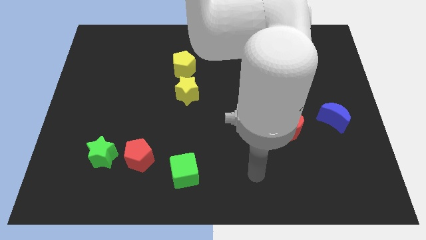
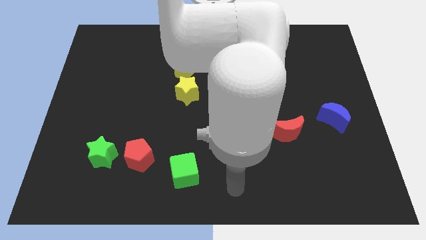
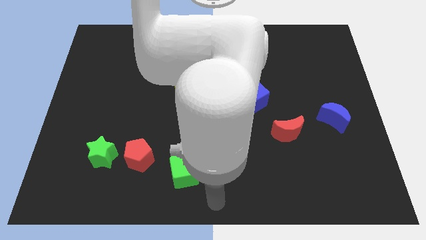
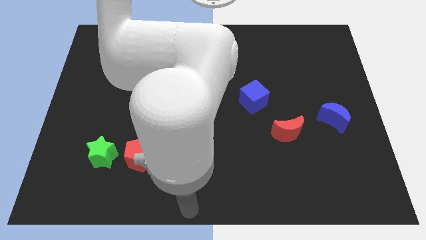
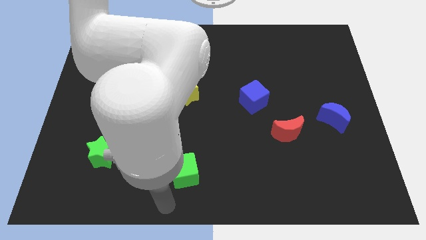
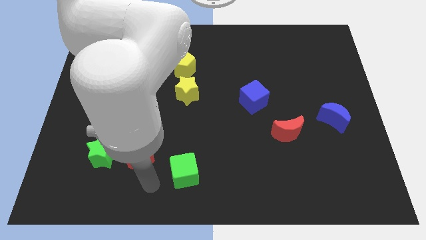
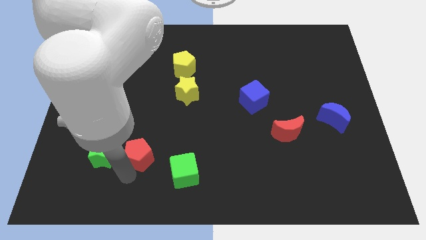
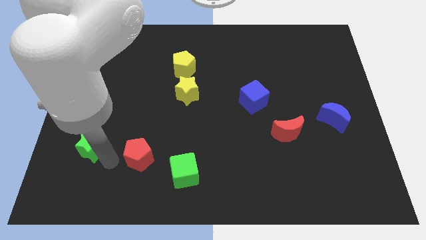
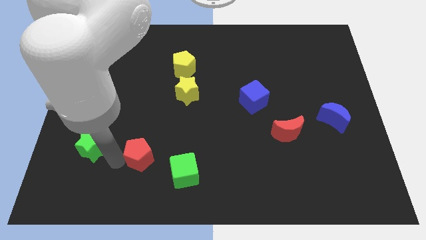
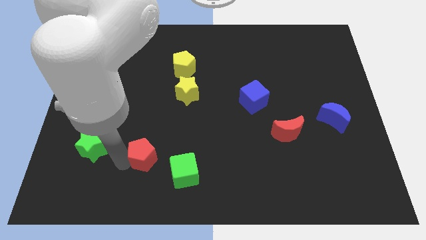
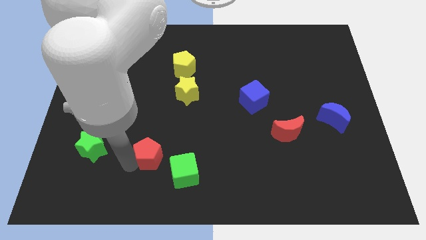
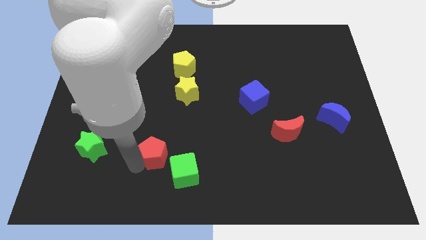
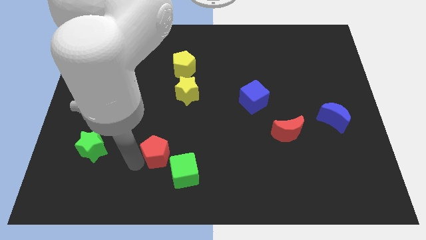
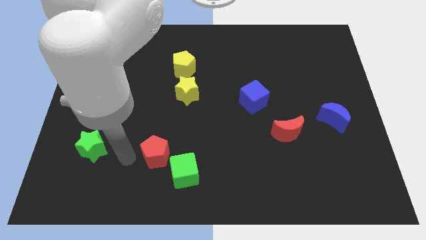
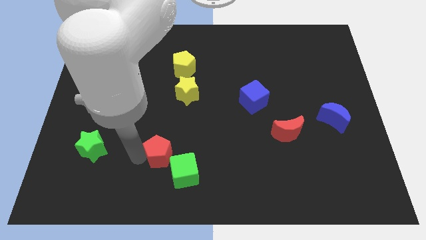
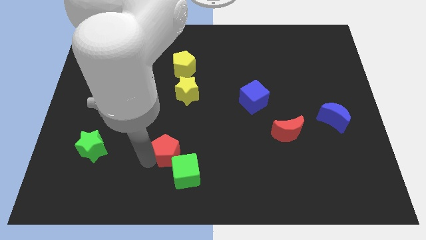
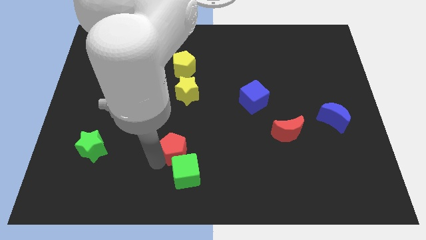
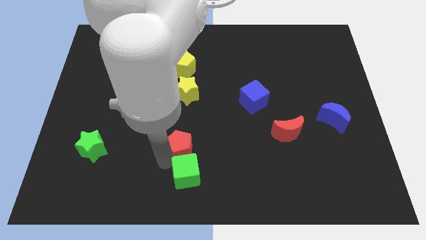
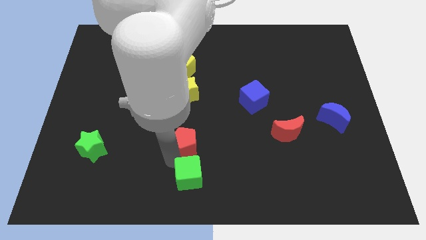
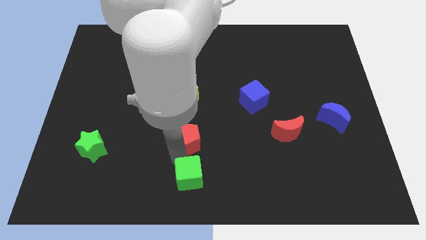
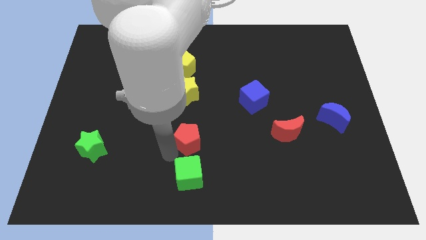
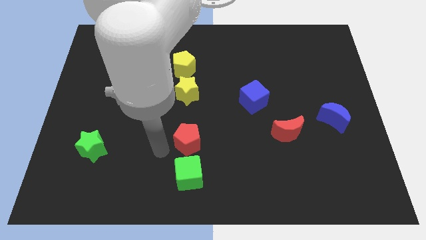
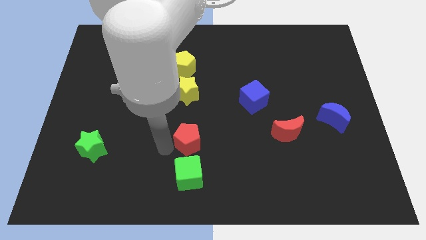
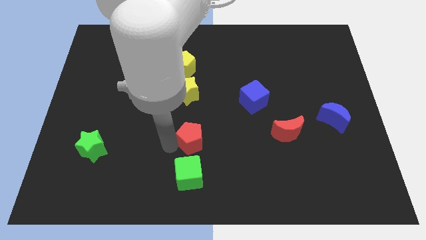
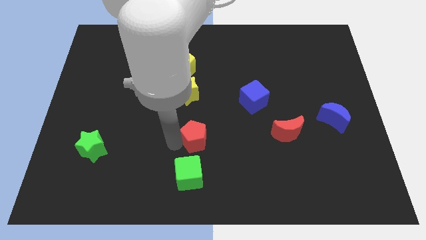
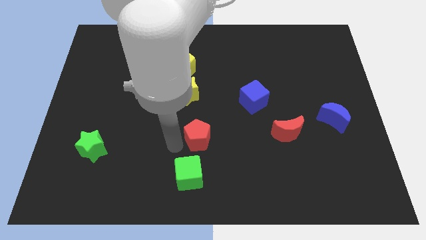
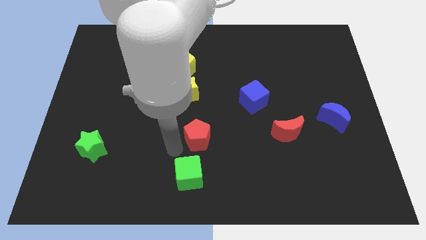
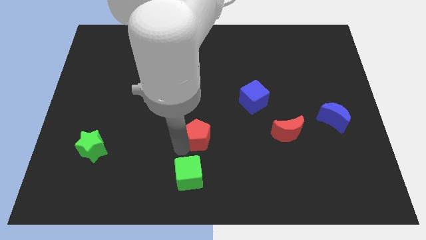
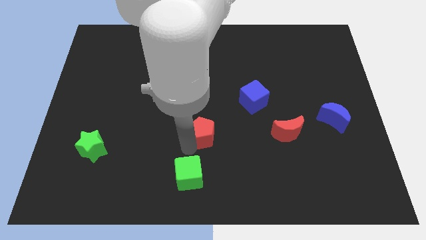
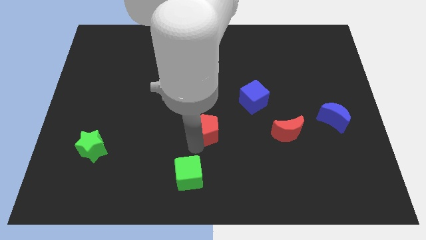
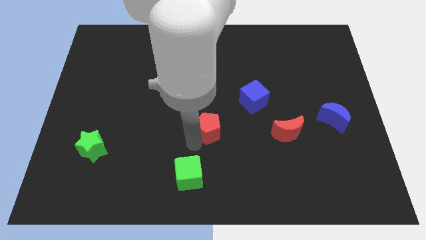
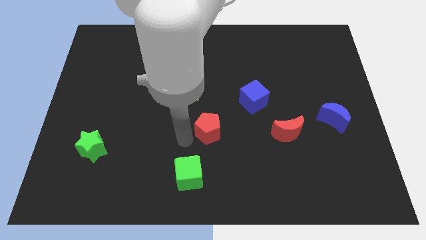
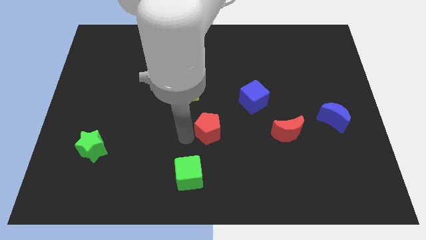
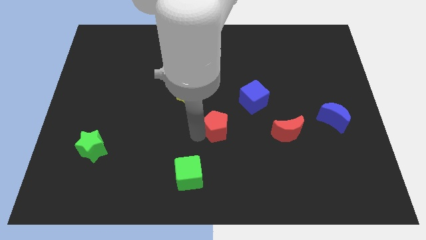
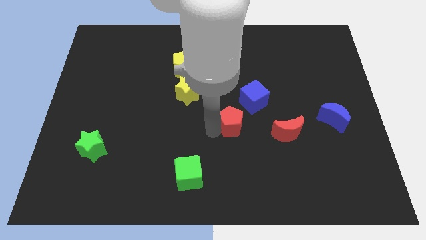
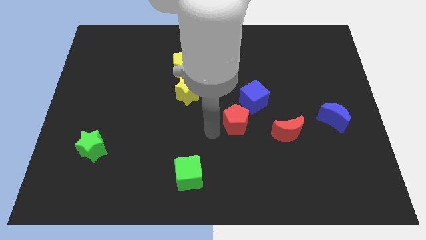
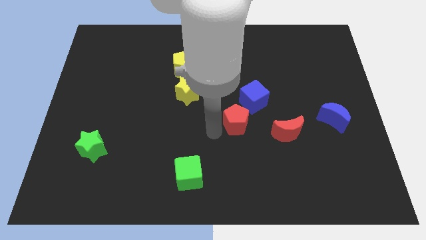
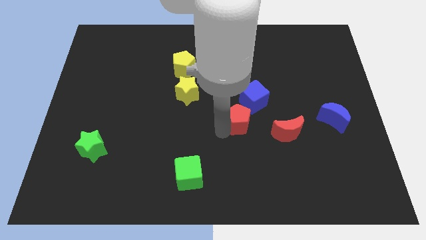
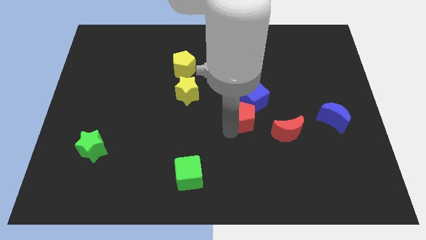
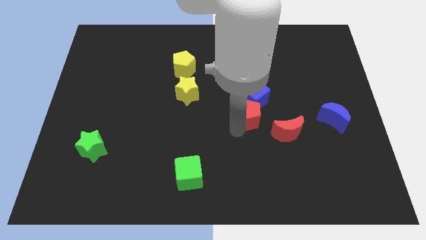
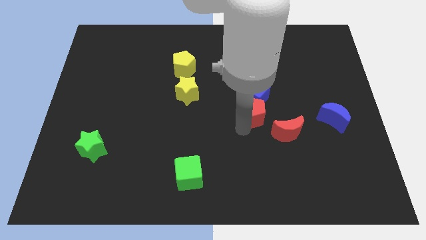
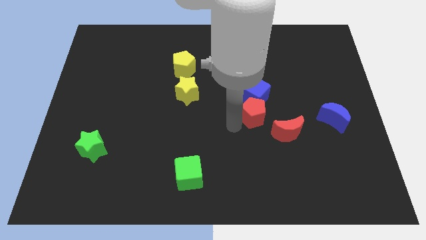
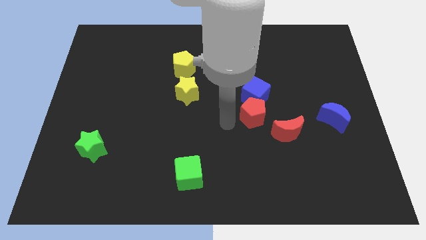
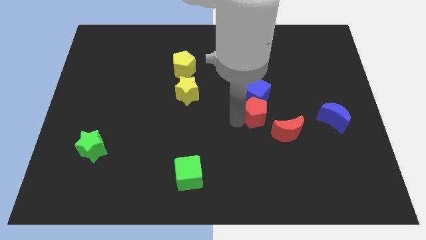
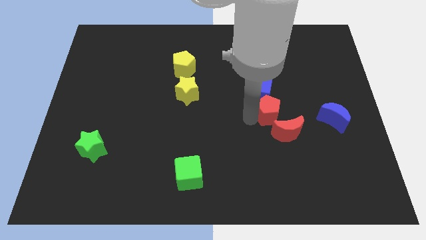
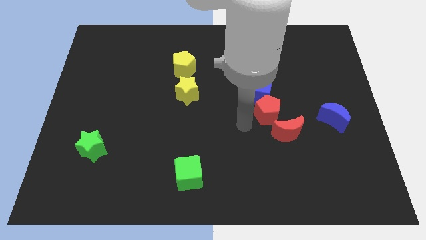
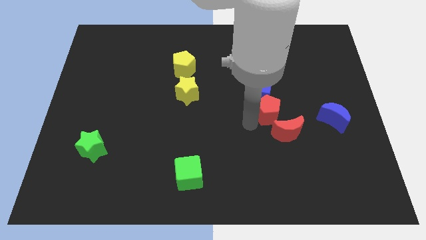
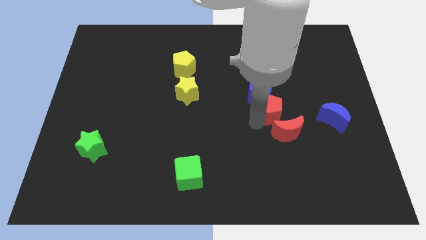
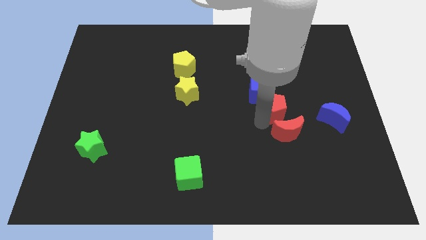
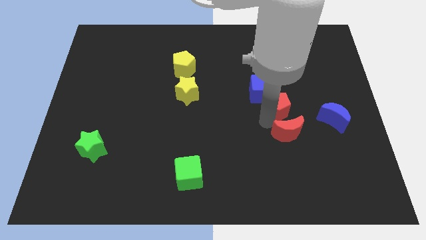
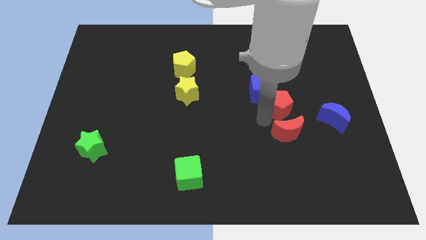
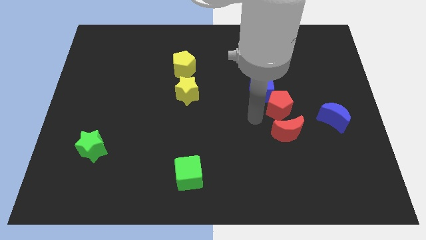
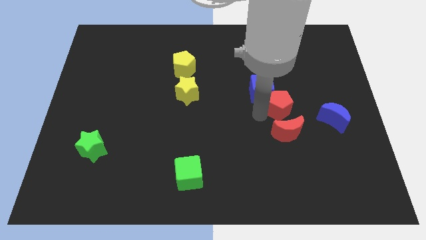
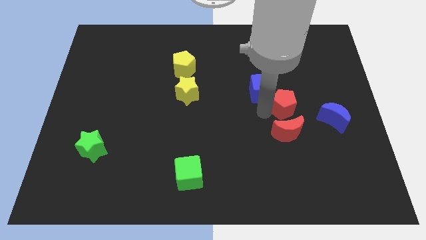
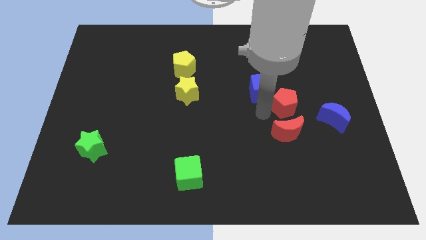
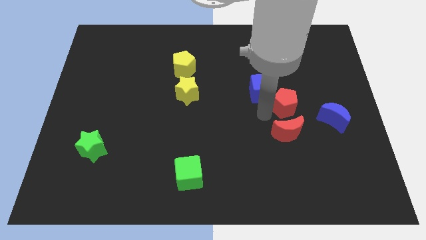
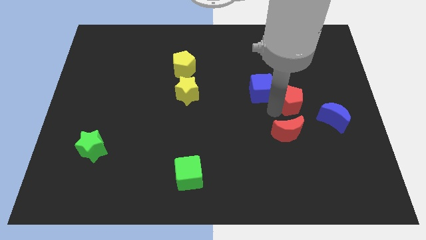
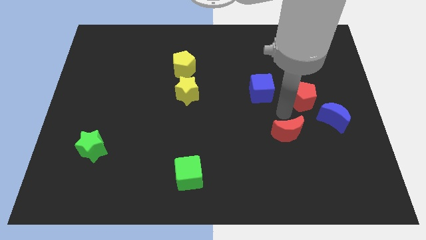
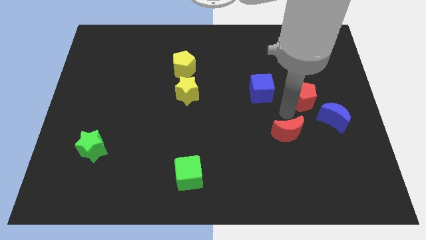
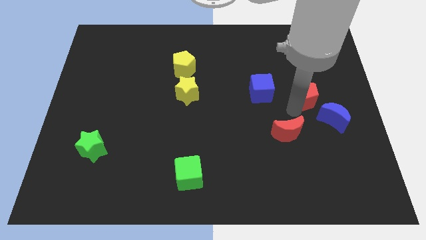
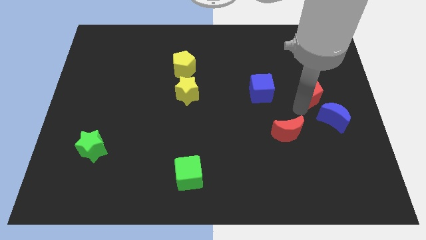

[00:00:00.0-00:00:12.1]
slide the red pentagon to the top of the blue moon

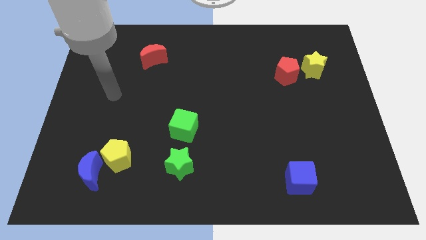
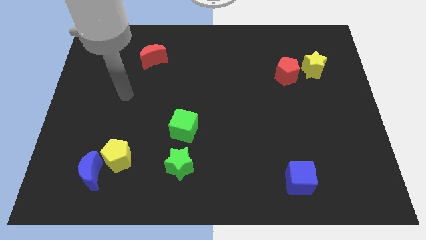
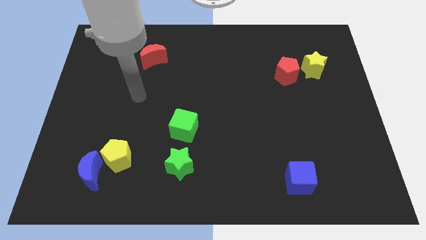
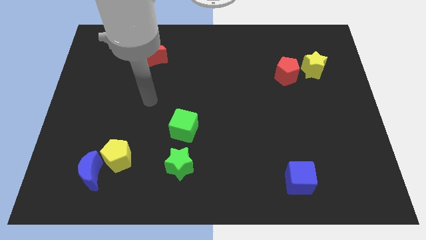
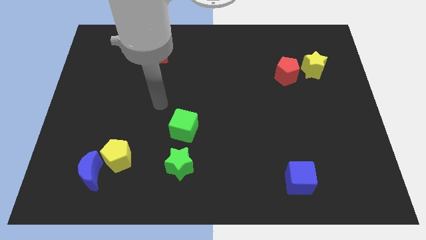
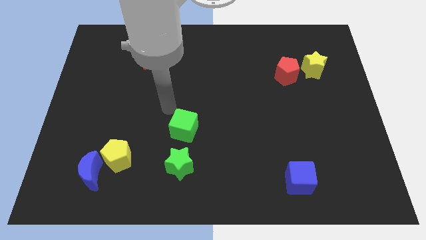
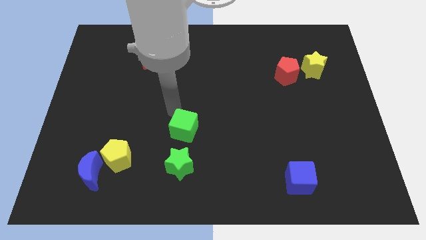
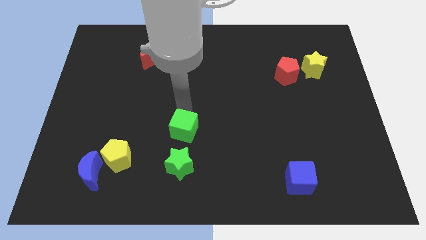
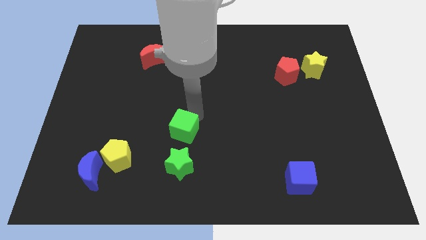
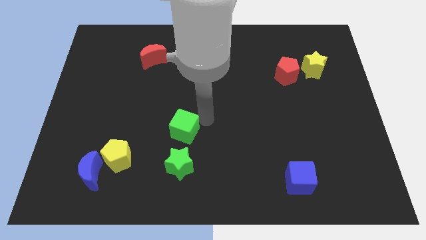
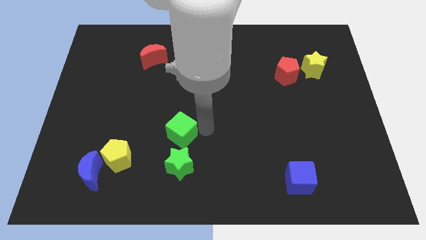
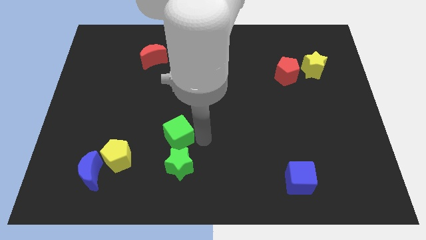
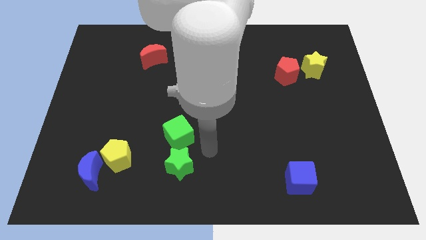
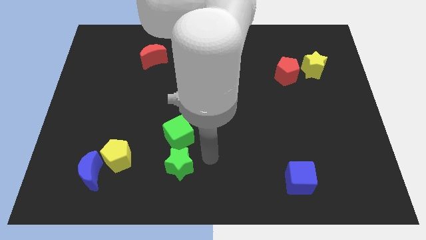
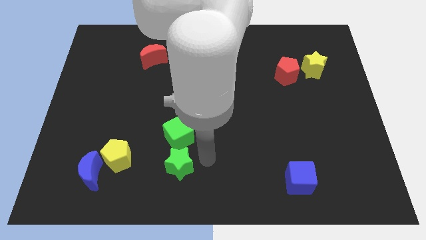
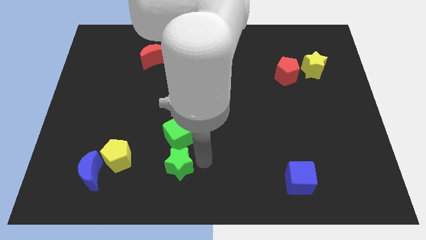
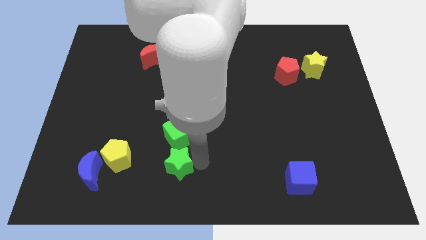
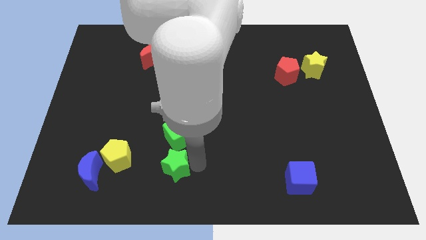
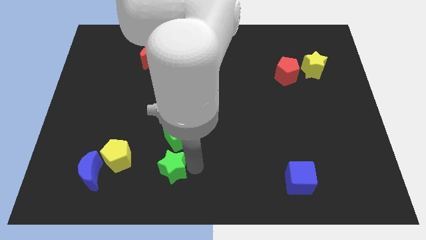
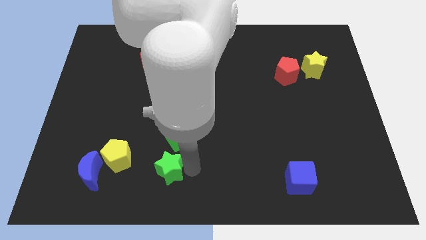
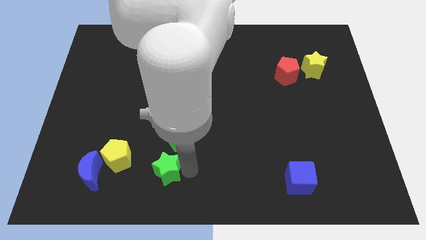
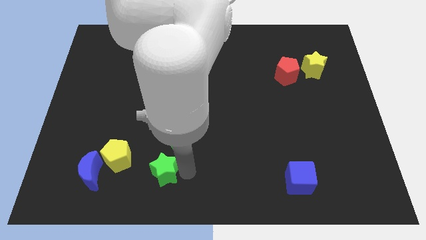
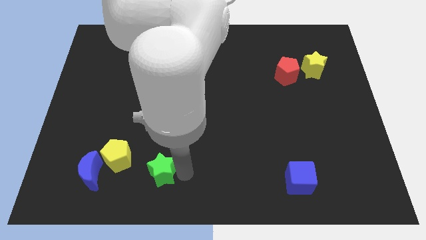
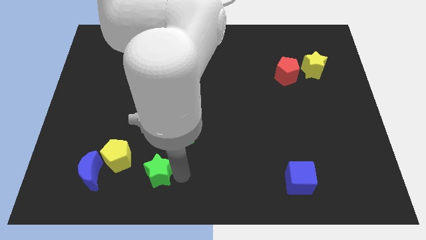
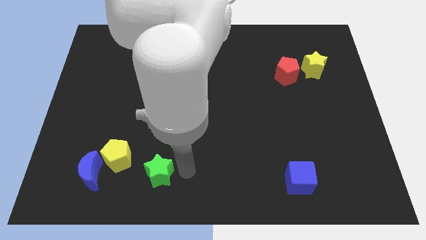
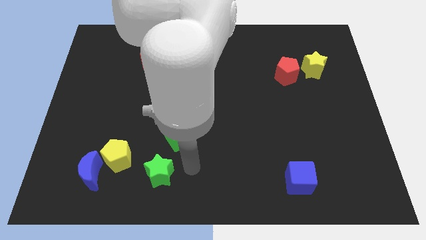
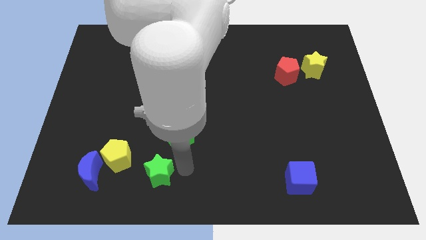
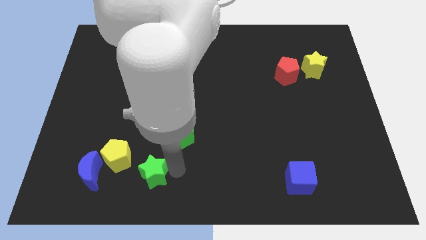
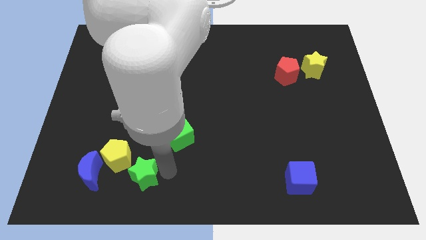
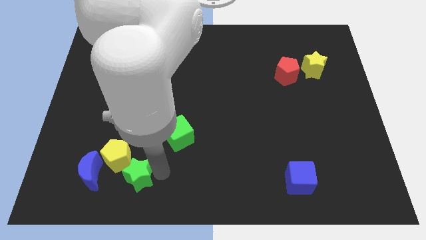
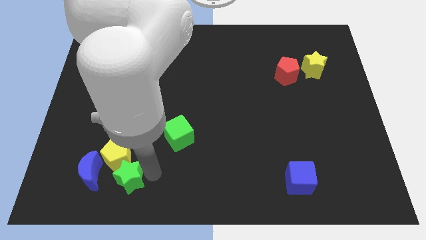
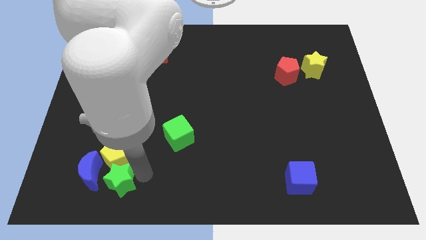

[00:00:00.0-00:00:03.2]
slide the green star to the bottom left side of the yellow pentagon
